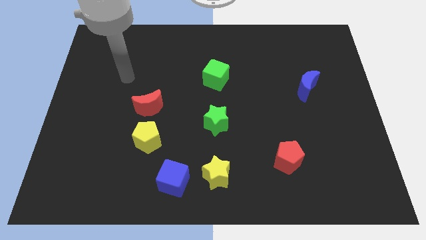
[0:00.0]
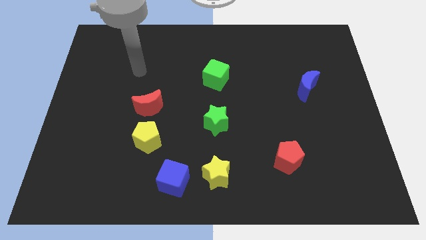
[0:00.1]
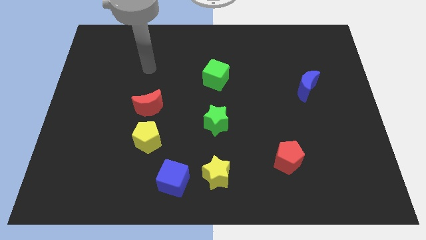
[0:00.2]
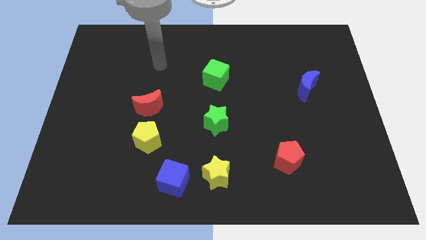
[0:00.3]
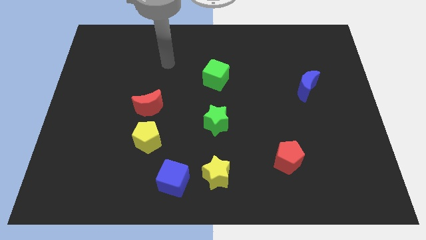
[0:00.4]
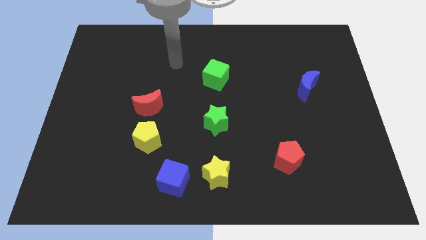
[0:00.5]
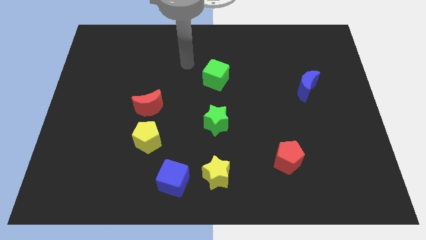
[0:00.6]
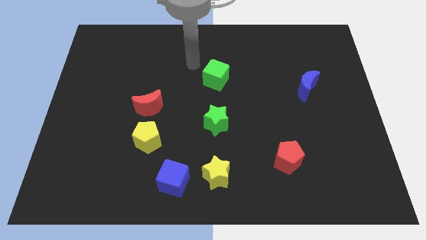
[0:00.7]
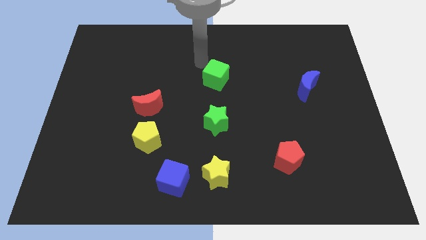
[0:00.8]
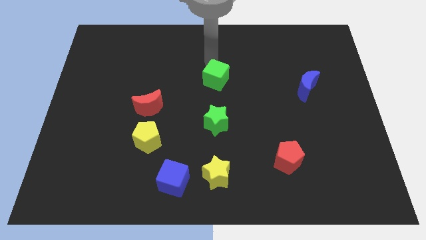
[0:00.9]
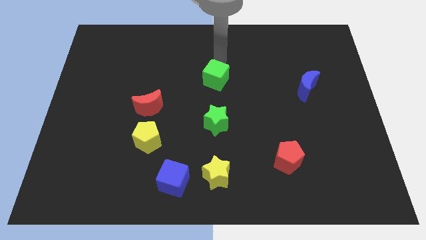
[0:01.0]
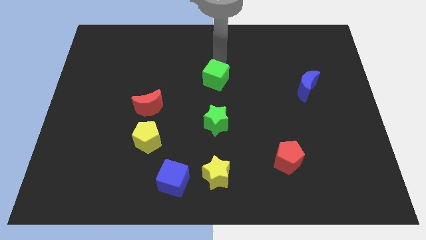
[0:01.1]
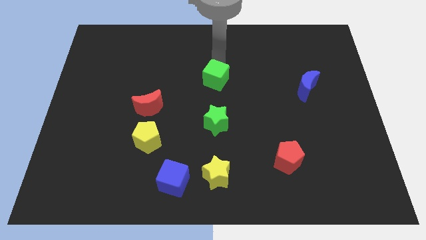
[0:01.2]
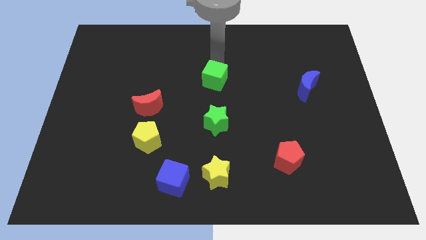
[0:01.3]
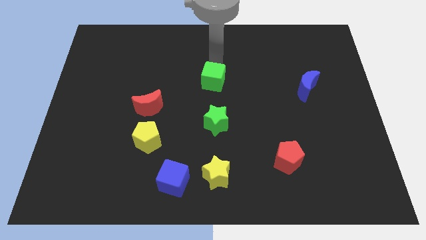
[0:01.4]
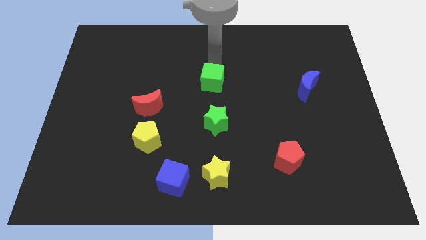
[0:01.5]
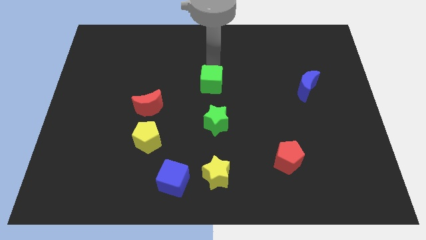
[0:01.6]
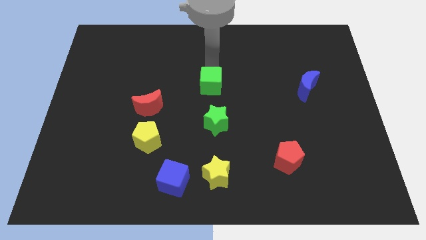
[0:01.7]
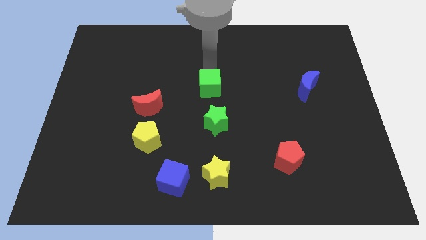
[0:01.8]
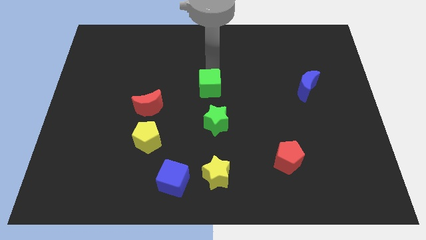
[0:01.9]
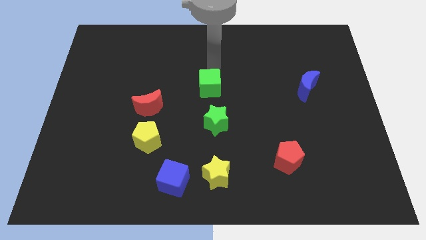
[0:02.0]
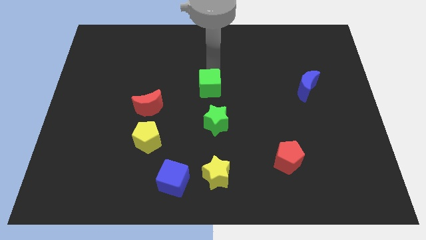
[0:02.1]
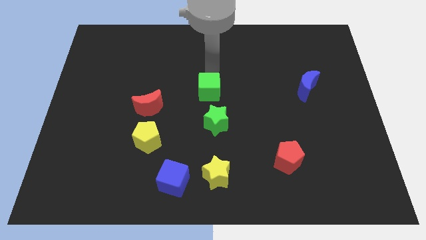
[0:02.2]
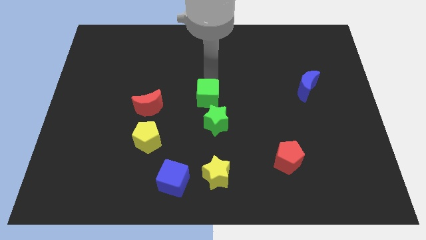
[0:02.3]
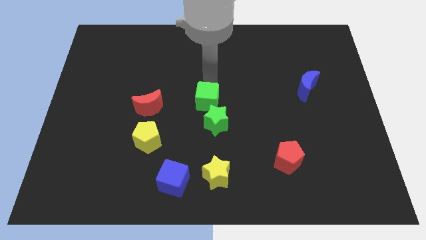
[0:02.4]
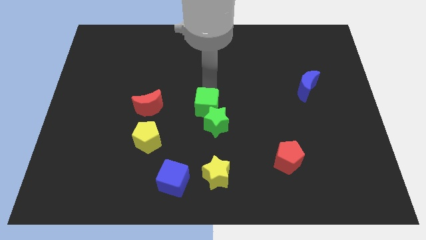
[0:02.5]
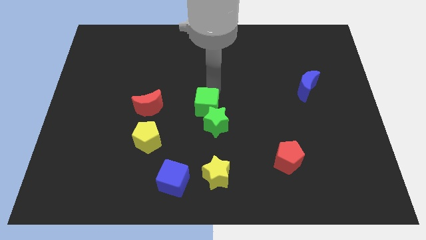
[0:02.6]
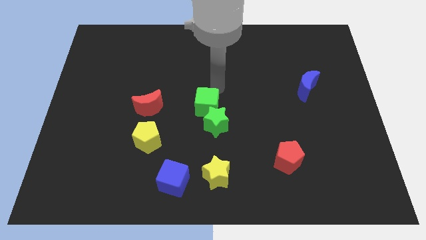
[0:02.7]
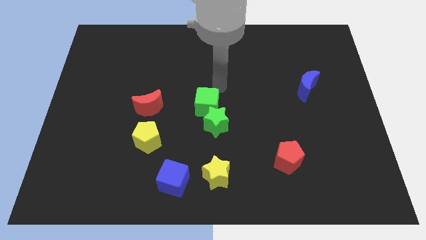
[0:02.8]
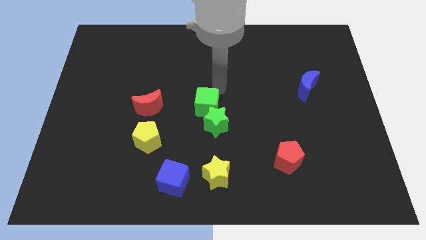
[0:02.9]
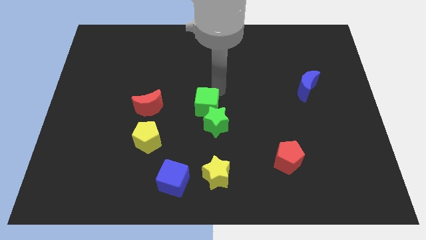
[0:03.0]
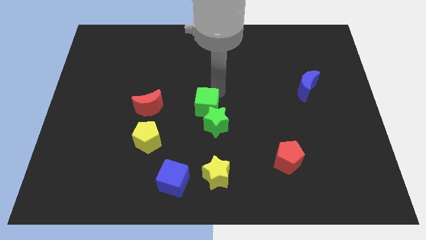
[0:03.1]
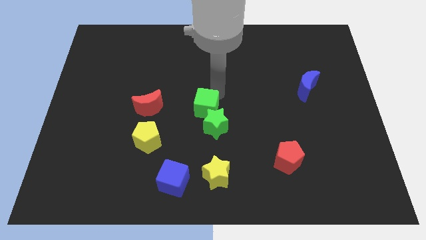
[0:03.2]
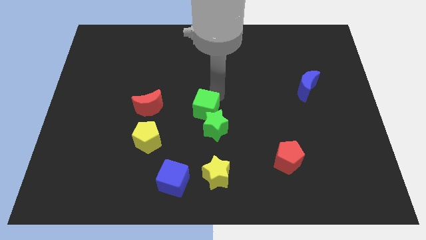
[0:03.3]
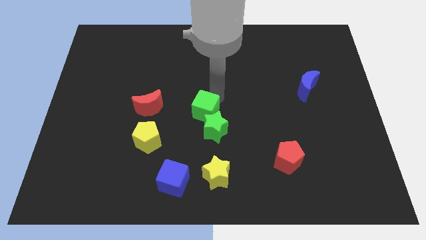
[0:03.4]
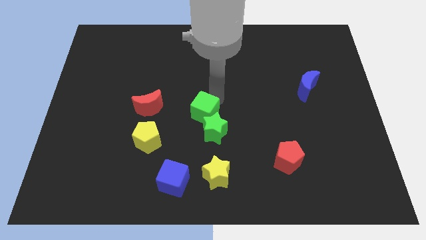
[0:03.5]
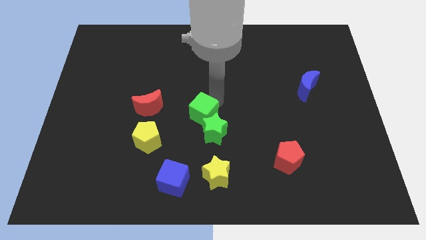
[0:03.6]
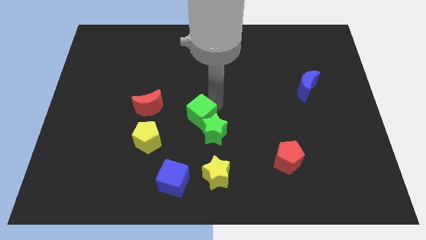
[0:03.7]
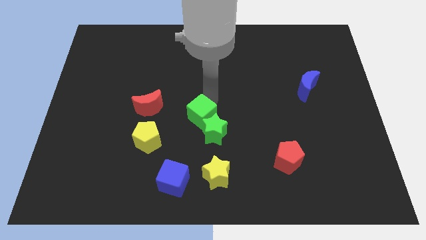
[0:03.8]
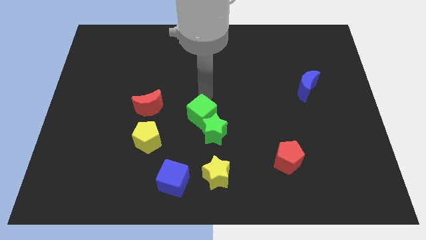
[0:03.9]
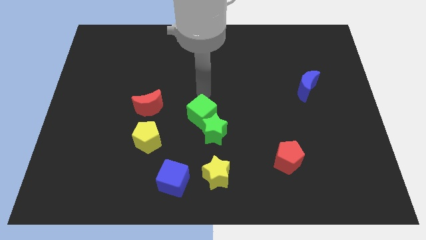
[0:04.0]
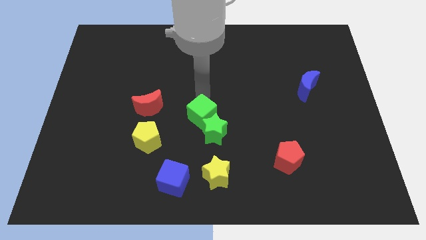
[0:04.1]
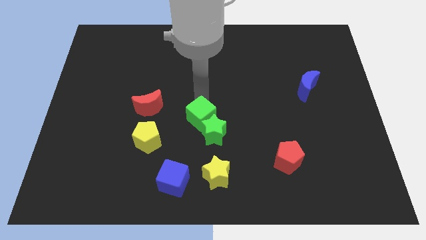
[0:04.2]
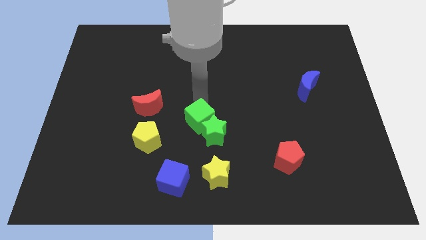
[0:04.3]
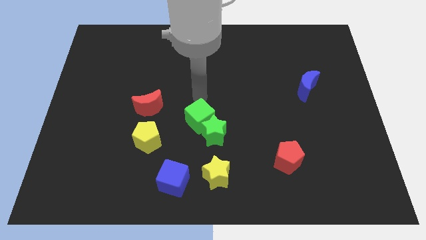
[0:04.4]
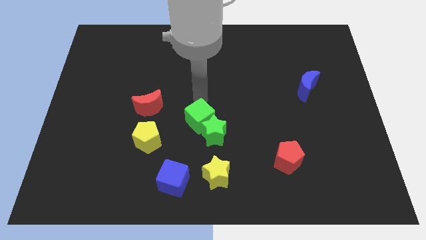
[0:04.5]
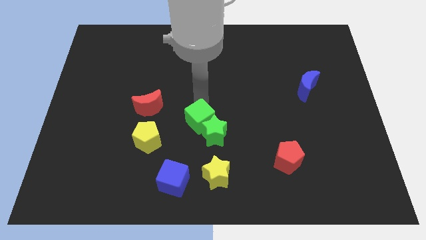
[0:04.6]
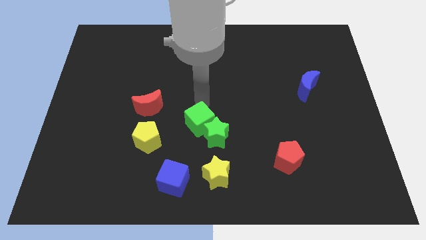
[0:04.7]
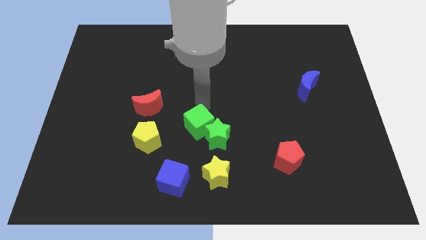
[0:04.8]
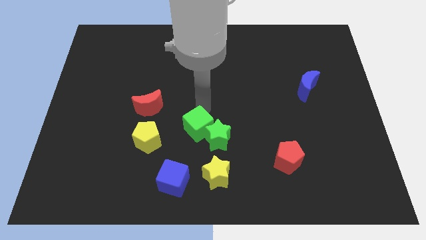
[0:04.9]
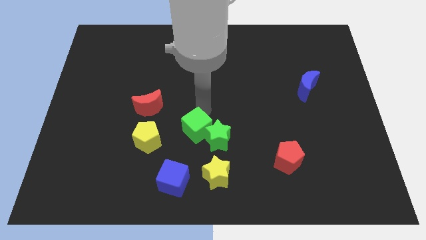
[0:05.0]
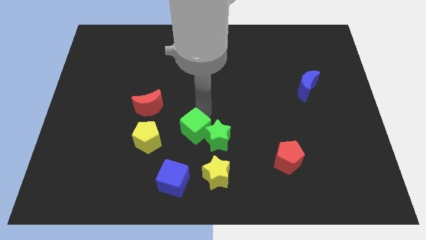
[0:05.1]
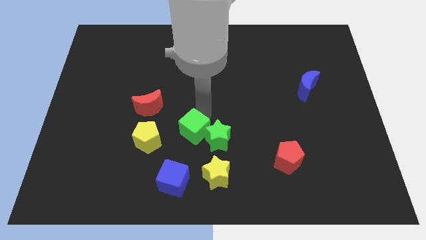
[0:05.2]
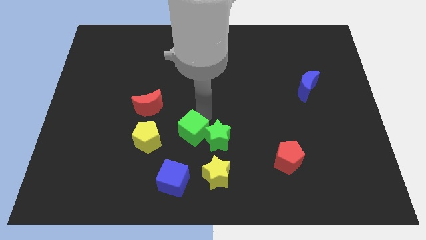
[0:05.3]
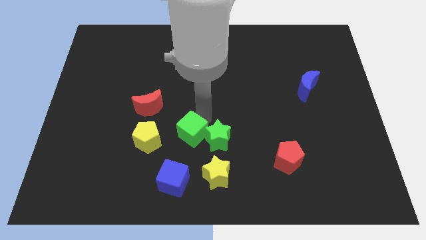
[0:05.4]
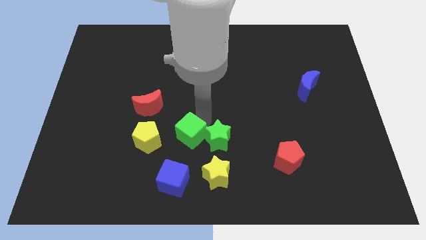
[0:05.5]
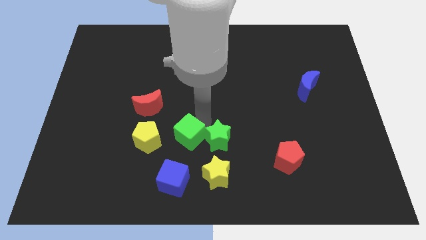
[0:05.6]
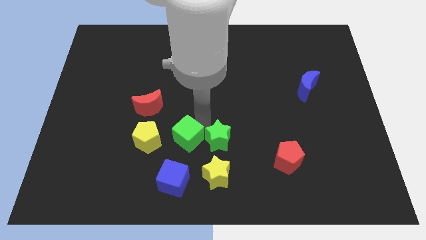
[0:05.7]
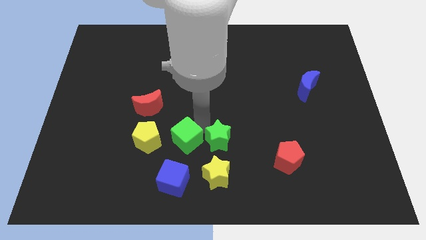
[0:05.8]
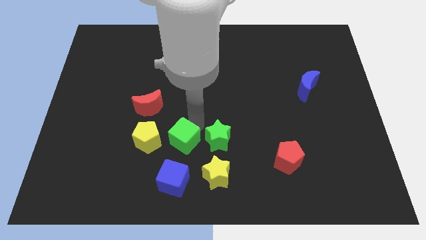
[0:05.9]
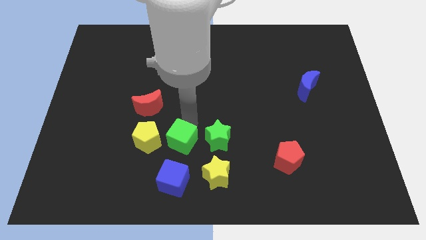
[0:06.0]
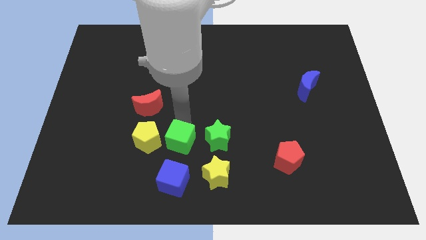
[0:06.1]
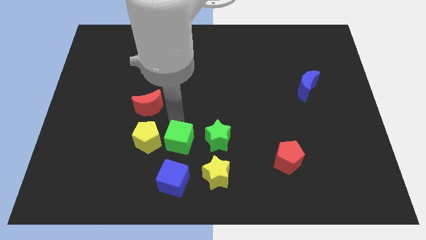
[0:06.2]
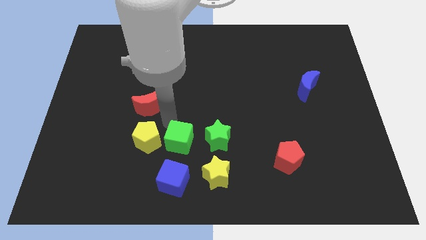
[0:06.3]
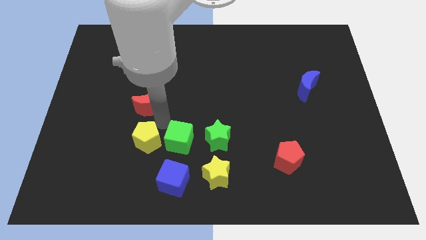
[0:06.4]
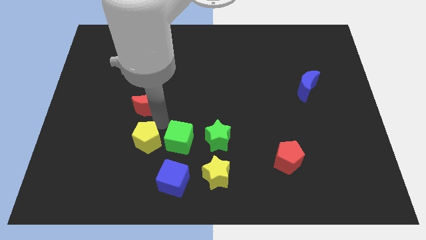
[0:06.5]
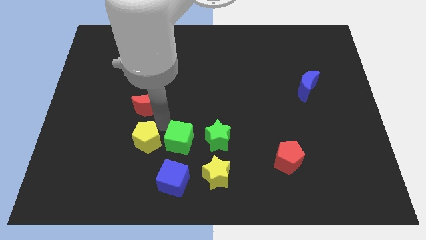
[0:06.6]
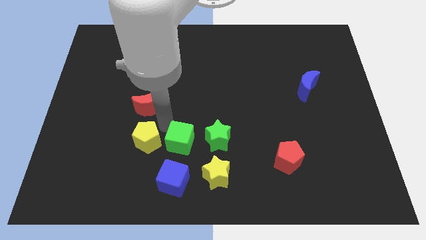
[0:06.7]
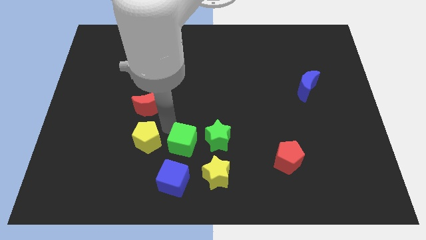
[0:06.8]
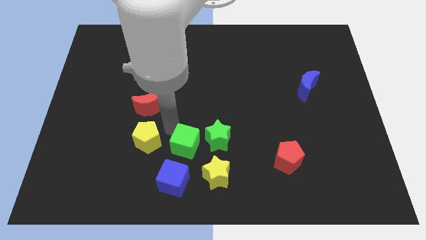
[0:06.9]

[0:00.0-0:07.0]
slide the green cube to the top right of the blue cube
